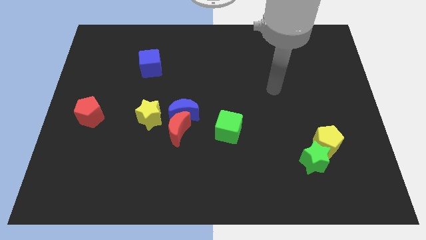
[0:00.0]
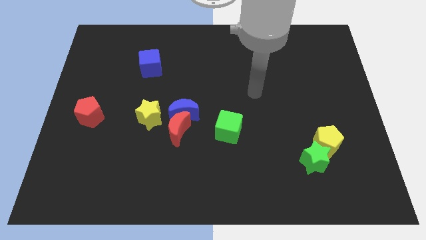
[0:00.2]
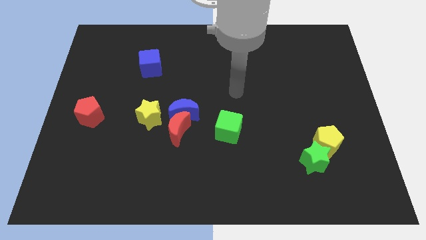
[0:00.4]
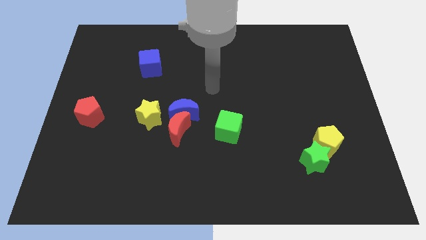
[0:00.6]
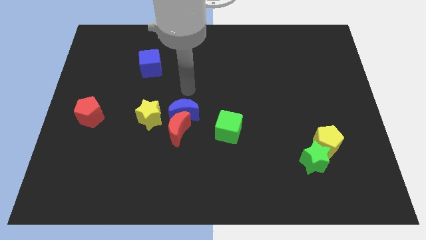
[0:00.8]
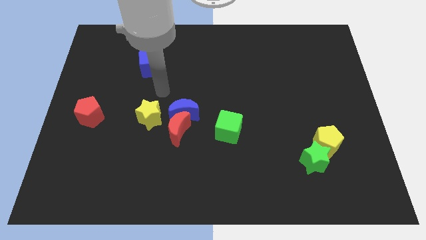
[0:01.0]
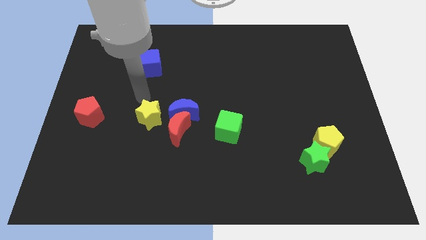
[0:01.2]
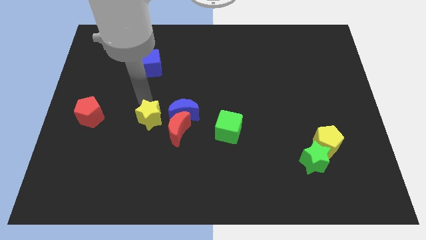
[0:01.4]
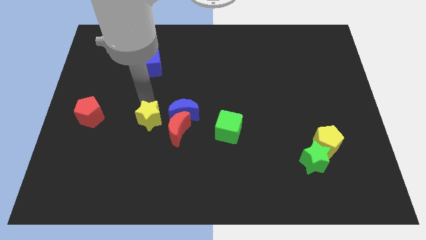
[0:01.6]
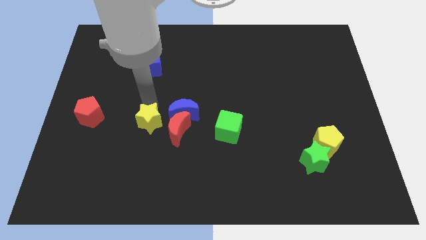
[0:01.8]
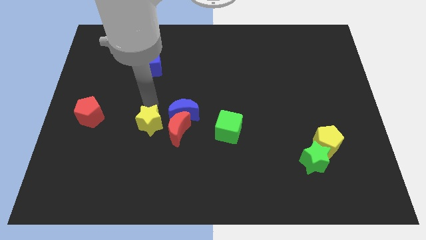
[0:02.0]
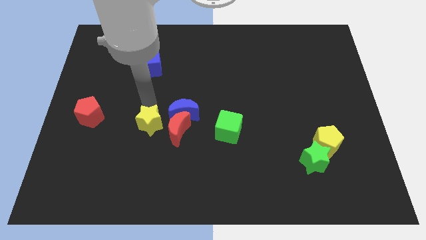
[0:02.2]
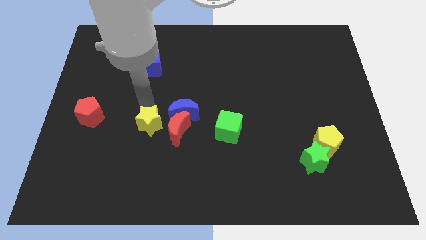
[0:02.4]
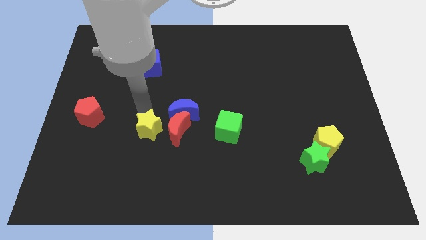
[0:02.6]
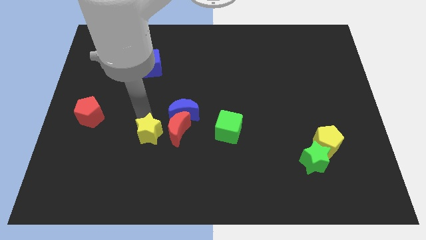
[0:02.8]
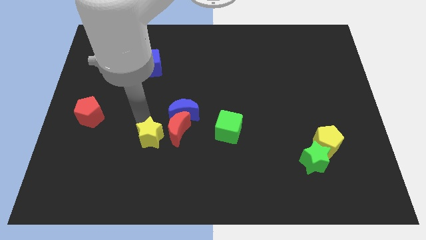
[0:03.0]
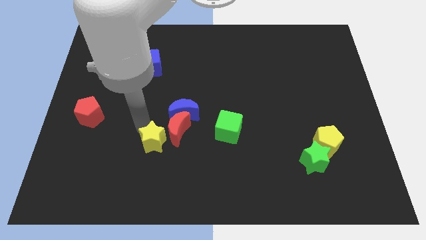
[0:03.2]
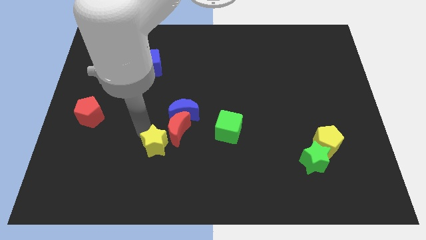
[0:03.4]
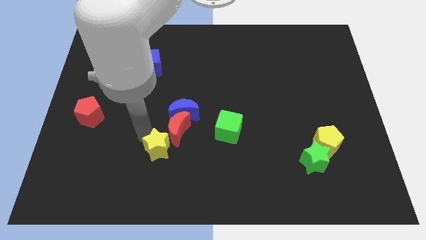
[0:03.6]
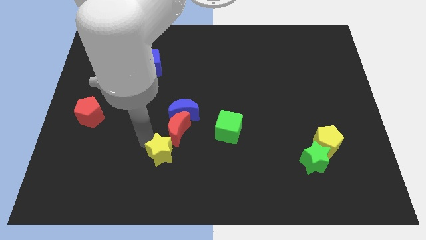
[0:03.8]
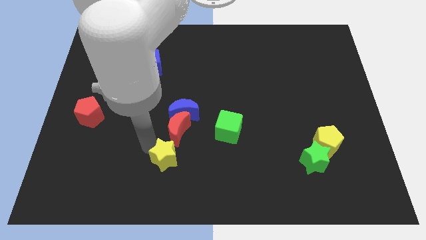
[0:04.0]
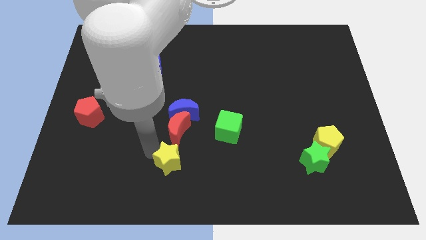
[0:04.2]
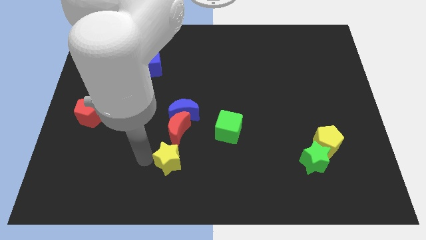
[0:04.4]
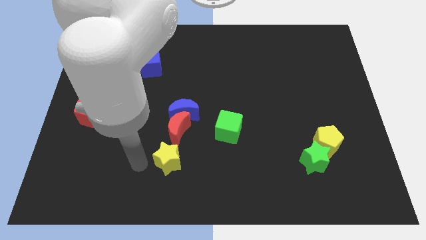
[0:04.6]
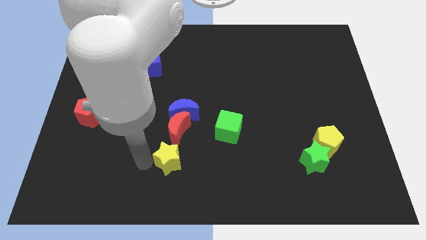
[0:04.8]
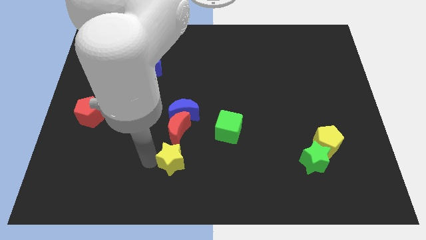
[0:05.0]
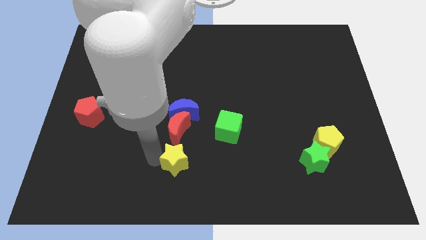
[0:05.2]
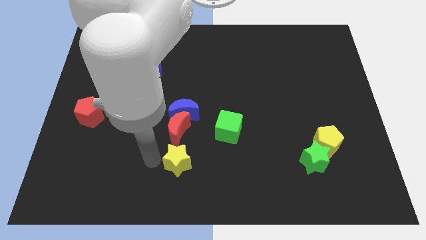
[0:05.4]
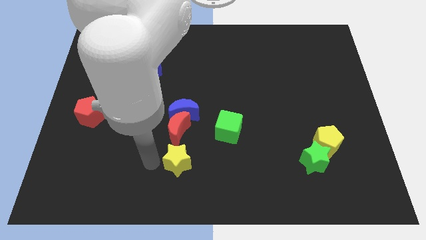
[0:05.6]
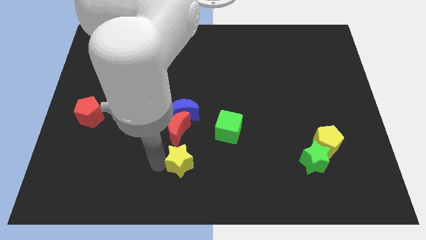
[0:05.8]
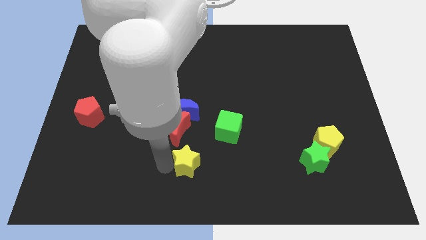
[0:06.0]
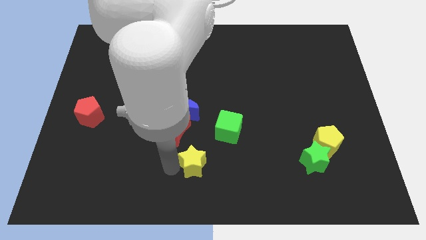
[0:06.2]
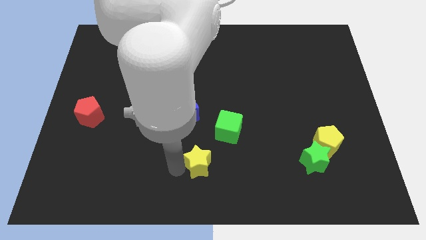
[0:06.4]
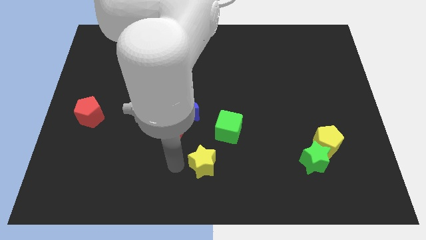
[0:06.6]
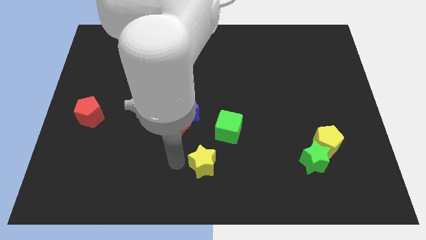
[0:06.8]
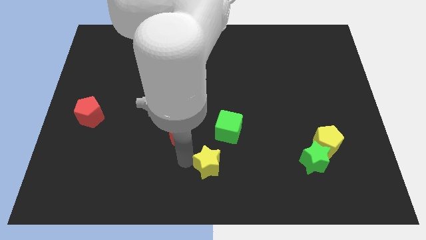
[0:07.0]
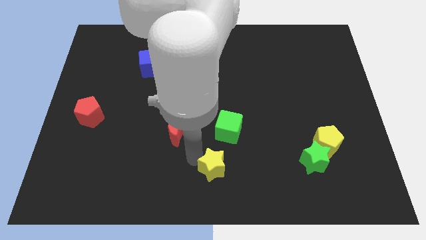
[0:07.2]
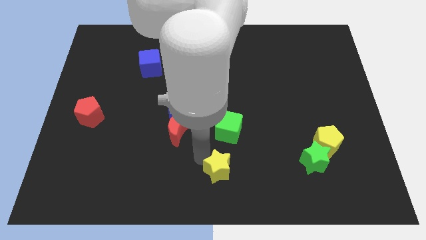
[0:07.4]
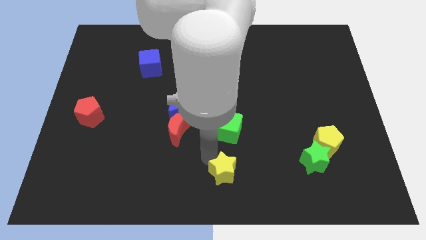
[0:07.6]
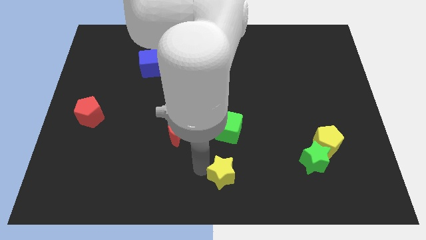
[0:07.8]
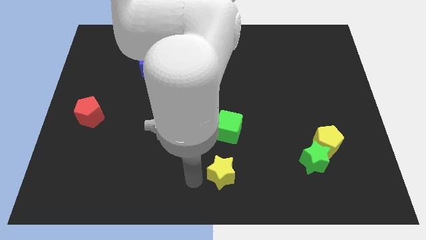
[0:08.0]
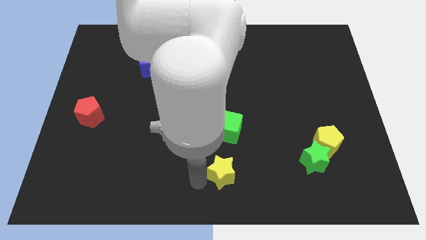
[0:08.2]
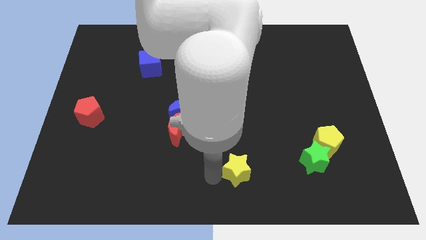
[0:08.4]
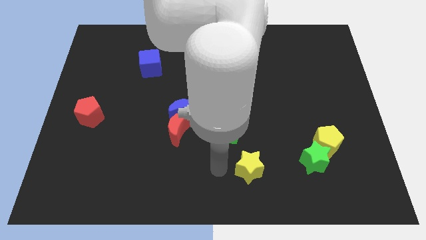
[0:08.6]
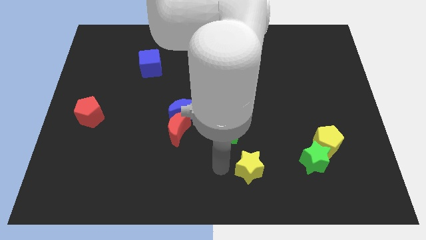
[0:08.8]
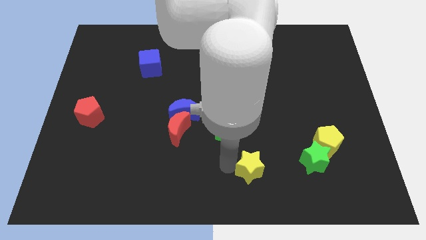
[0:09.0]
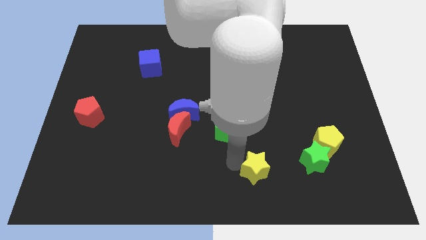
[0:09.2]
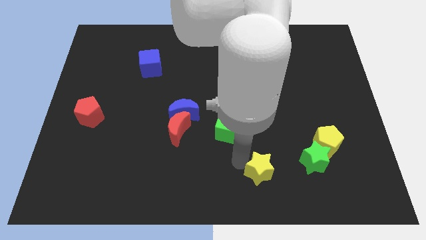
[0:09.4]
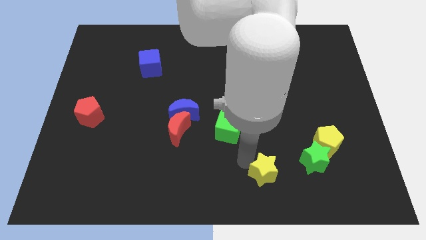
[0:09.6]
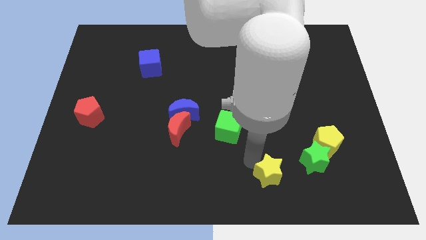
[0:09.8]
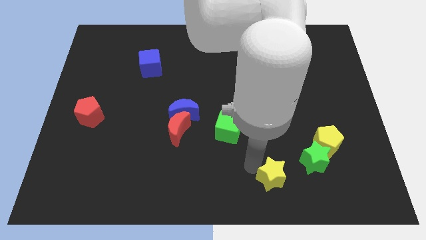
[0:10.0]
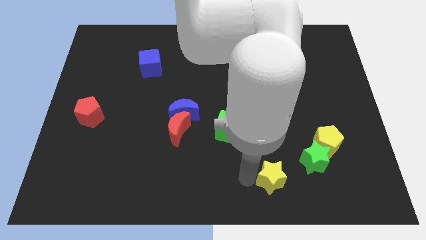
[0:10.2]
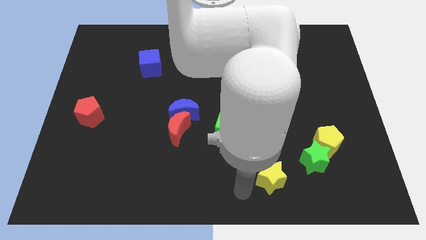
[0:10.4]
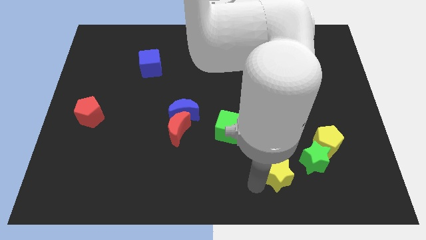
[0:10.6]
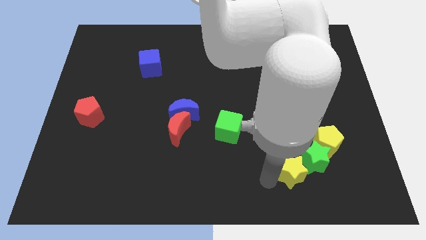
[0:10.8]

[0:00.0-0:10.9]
put the yellow star close to the green star

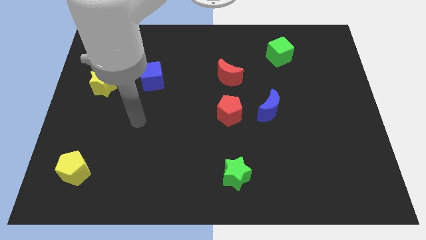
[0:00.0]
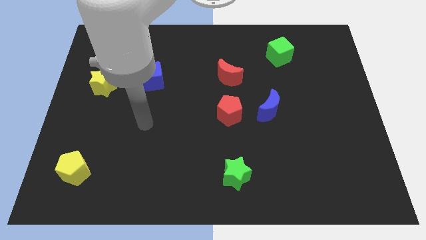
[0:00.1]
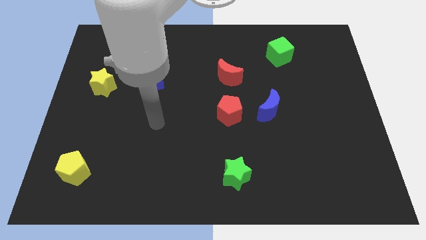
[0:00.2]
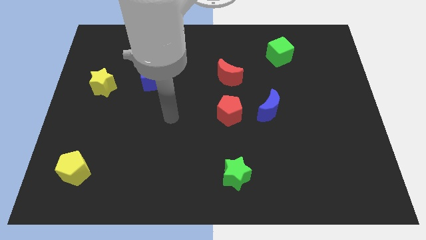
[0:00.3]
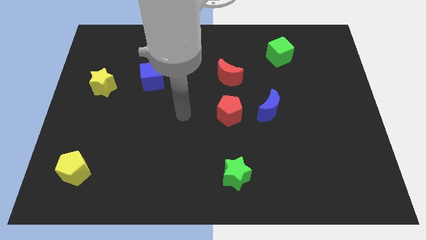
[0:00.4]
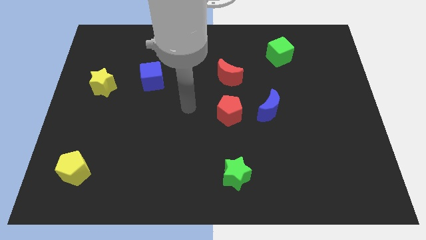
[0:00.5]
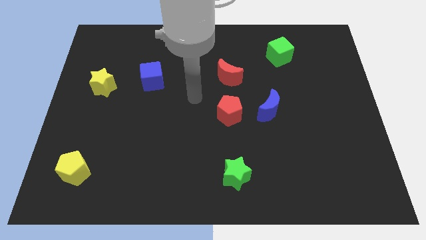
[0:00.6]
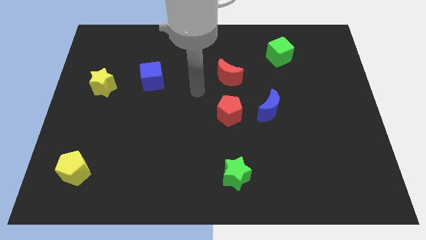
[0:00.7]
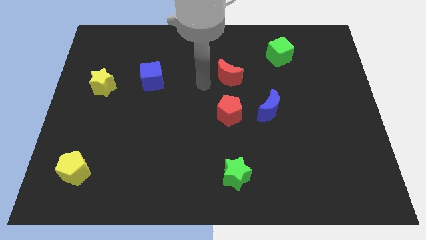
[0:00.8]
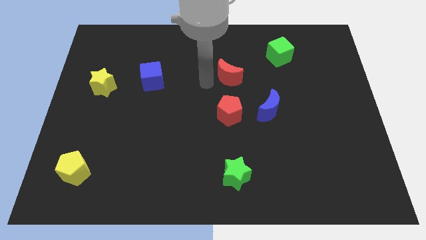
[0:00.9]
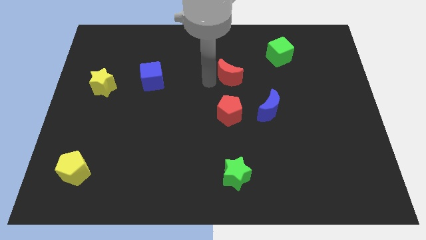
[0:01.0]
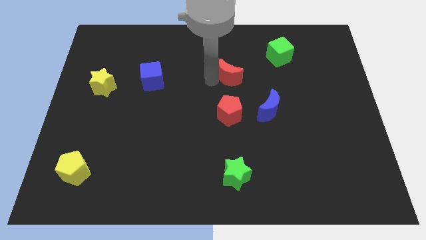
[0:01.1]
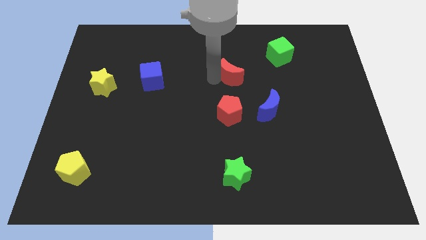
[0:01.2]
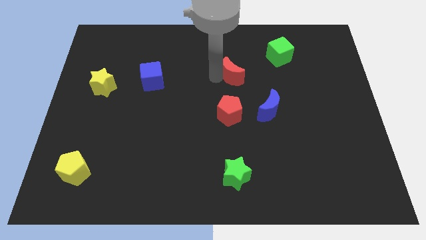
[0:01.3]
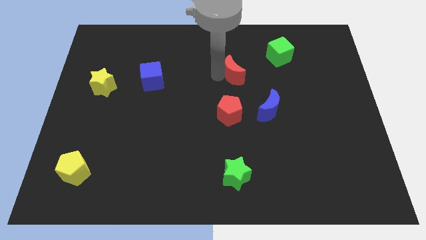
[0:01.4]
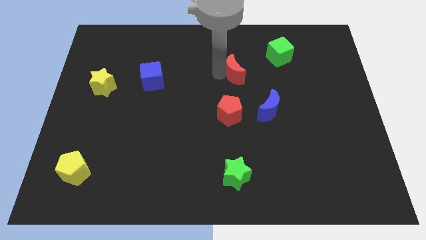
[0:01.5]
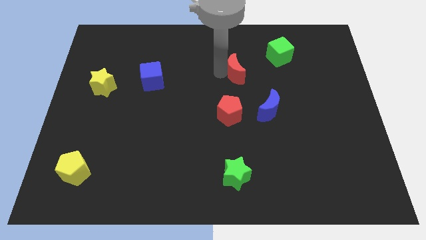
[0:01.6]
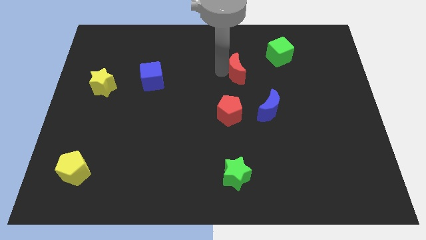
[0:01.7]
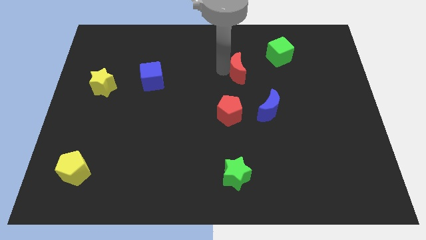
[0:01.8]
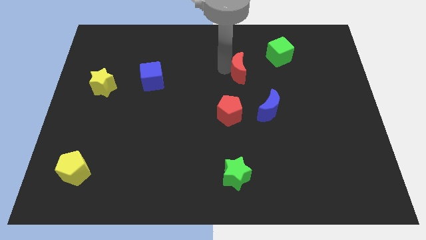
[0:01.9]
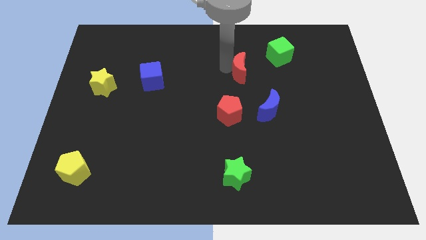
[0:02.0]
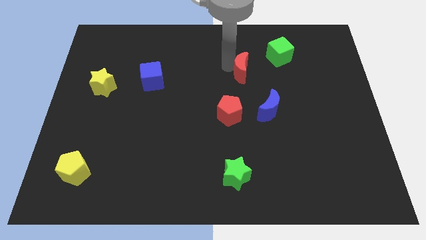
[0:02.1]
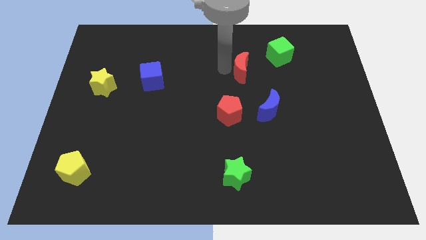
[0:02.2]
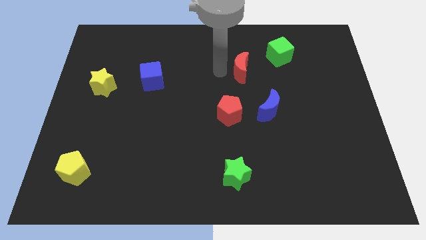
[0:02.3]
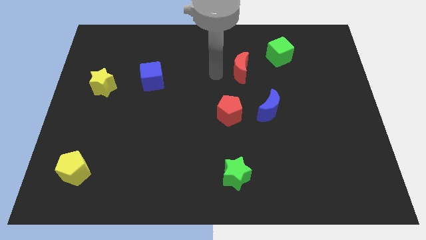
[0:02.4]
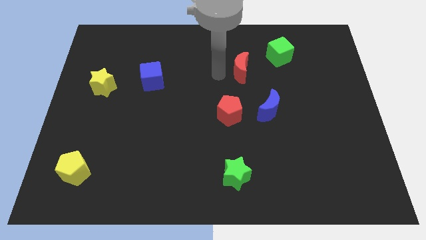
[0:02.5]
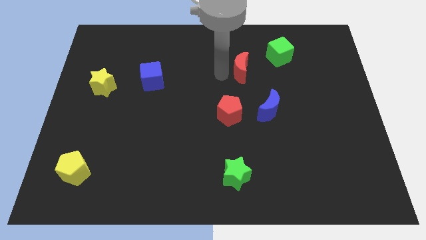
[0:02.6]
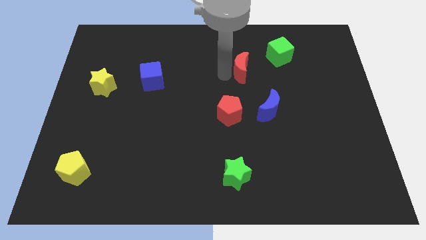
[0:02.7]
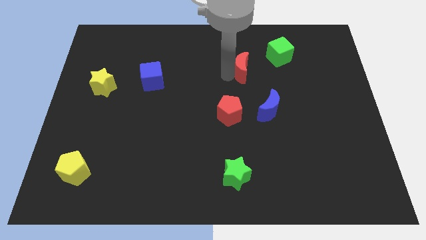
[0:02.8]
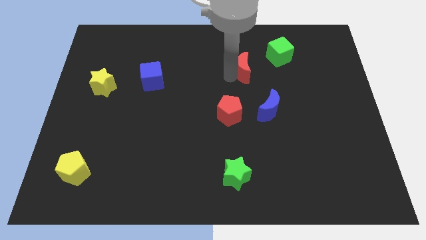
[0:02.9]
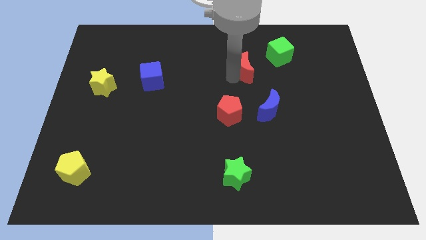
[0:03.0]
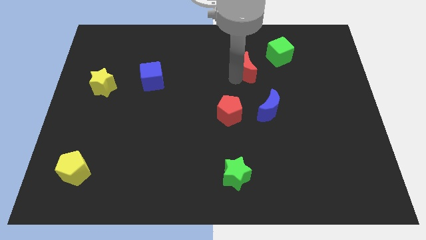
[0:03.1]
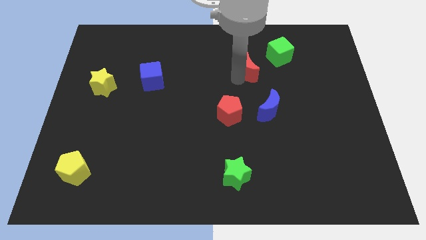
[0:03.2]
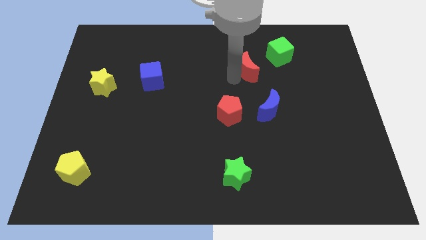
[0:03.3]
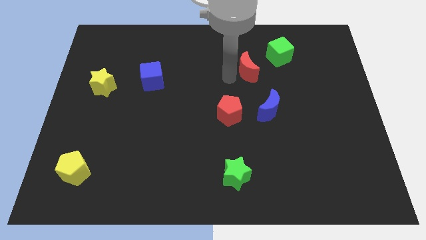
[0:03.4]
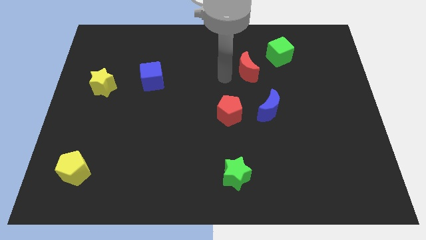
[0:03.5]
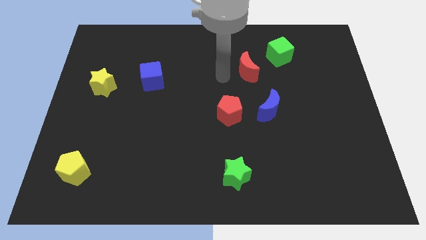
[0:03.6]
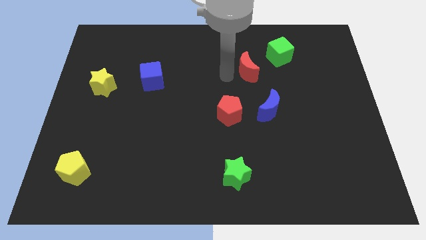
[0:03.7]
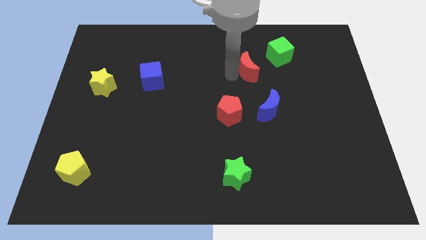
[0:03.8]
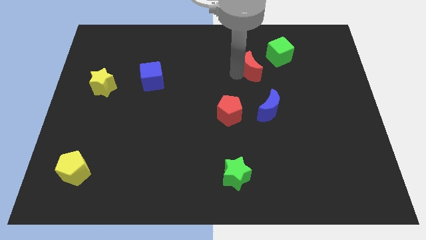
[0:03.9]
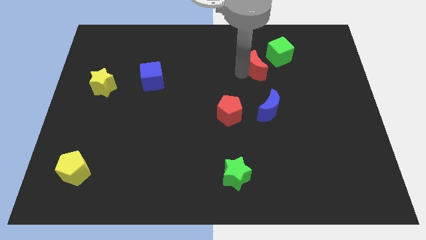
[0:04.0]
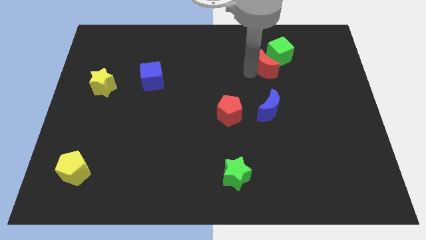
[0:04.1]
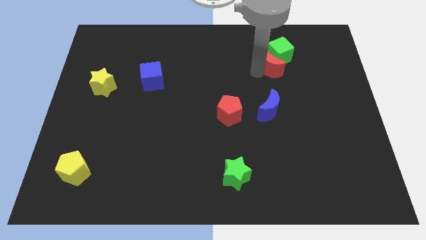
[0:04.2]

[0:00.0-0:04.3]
push the red moon next to the green cube
